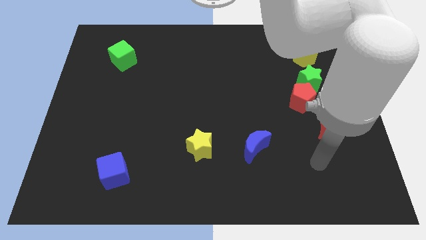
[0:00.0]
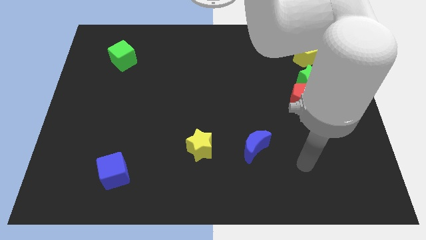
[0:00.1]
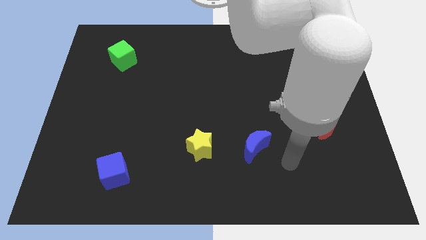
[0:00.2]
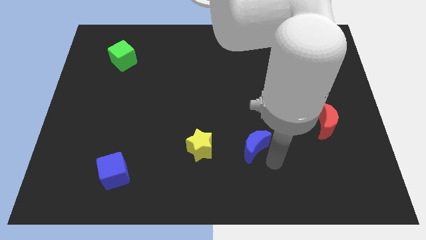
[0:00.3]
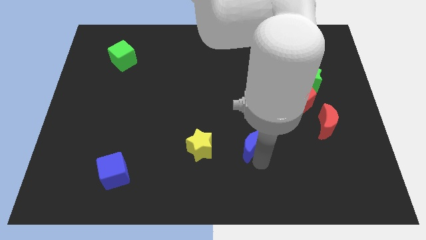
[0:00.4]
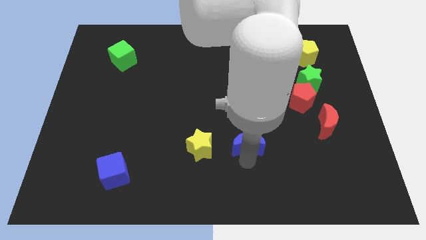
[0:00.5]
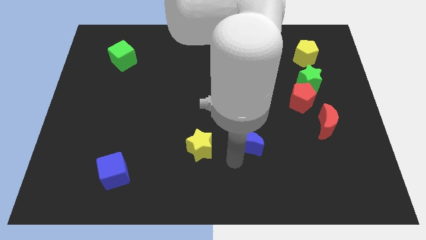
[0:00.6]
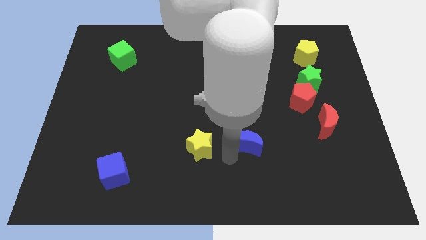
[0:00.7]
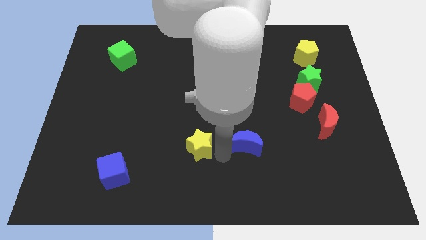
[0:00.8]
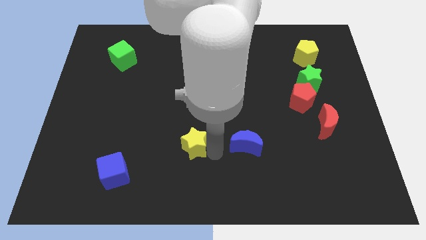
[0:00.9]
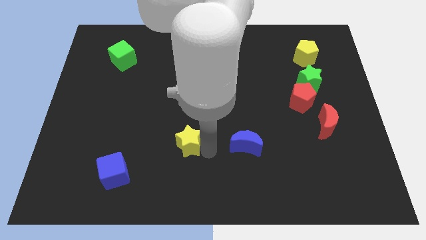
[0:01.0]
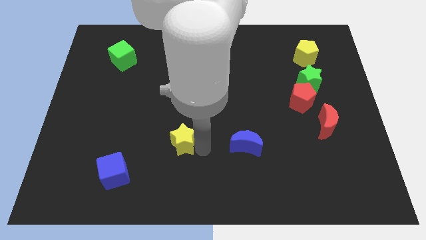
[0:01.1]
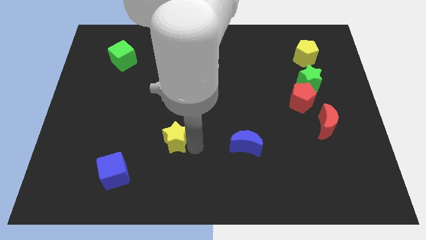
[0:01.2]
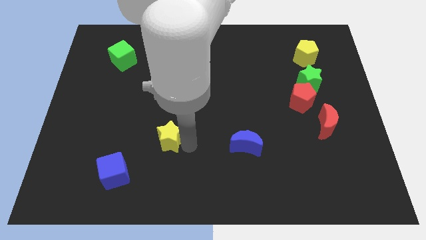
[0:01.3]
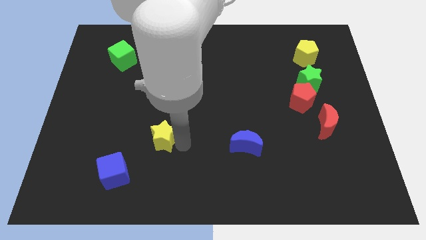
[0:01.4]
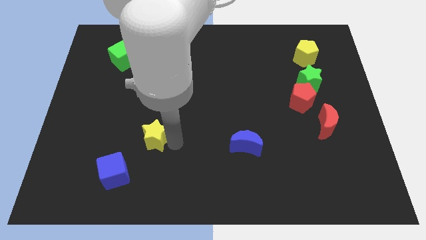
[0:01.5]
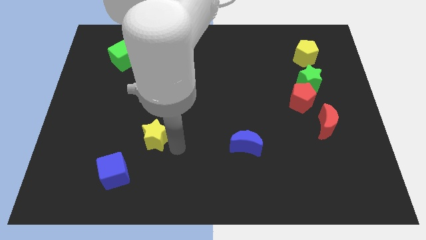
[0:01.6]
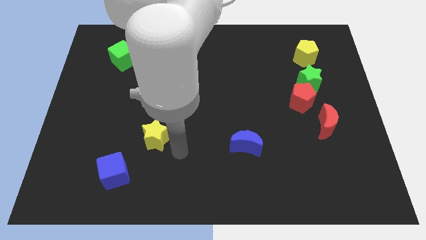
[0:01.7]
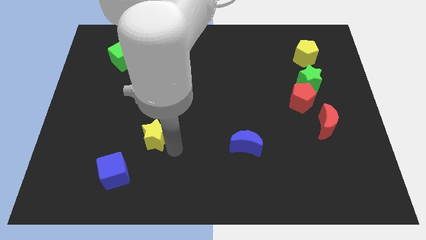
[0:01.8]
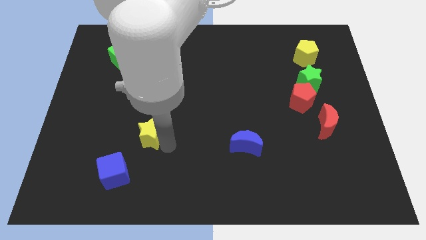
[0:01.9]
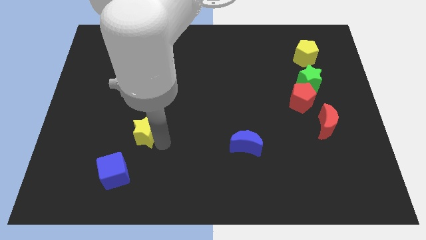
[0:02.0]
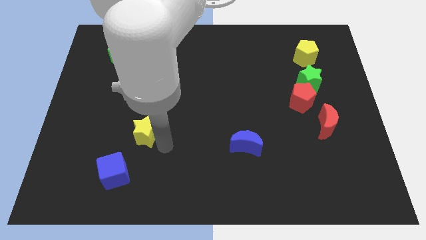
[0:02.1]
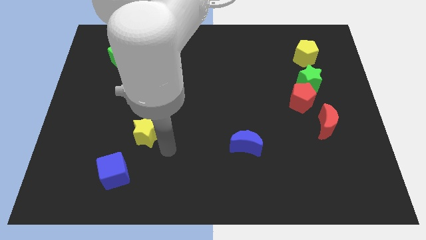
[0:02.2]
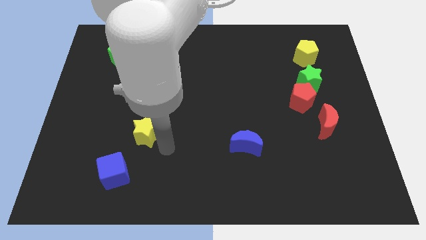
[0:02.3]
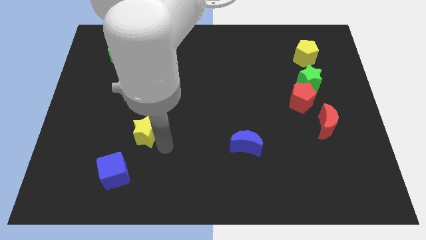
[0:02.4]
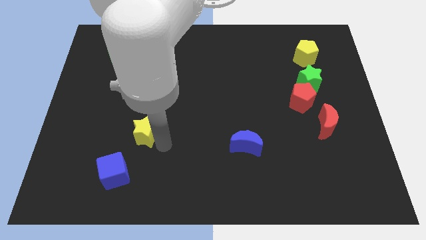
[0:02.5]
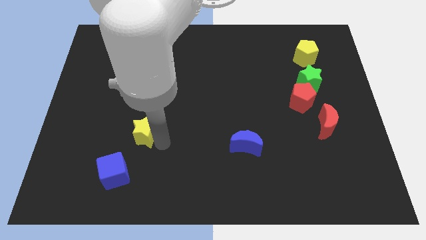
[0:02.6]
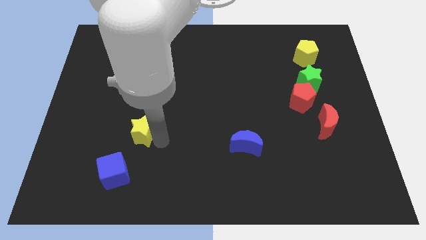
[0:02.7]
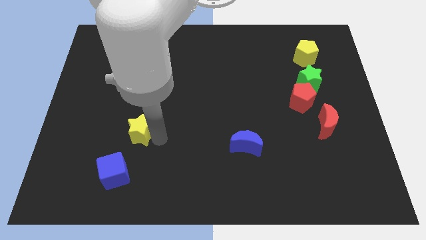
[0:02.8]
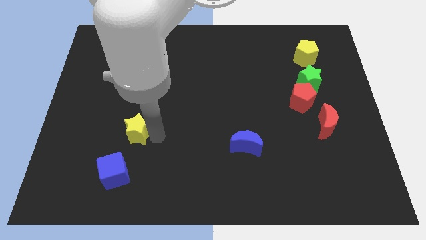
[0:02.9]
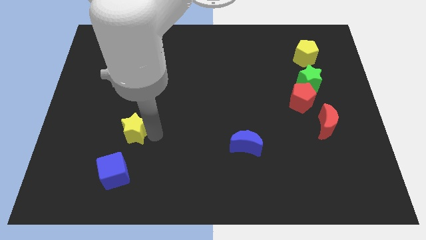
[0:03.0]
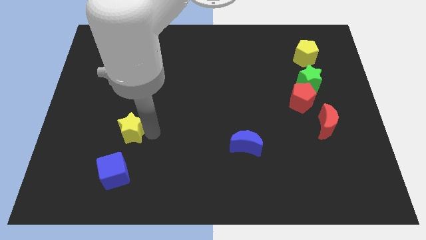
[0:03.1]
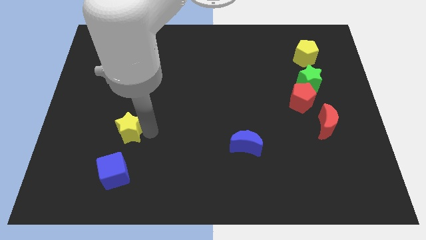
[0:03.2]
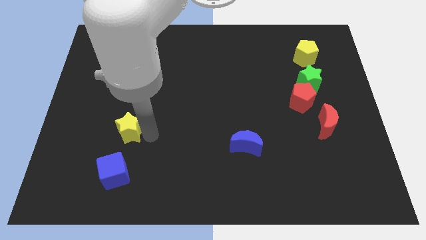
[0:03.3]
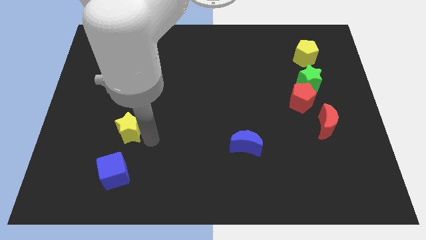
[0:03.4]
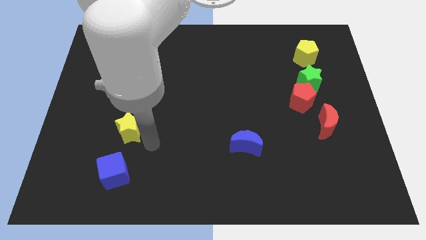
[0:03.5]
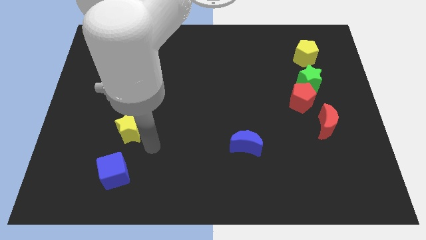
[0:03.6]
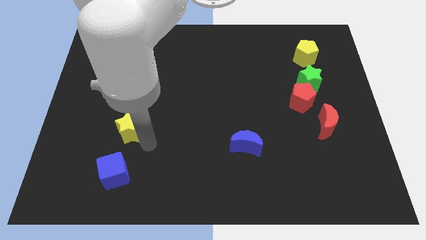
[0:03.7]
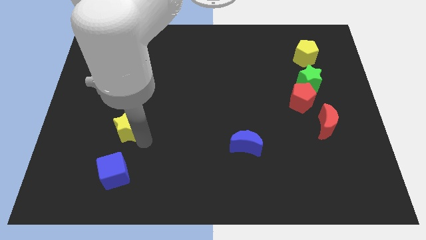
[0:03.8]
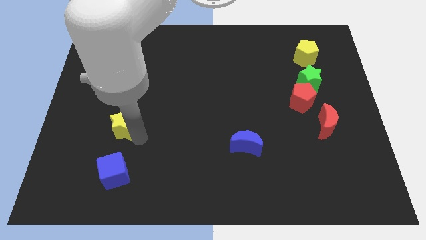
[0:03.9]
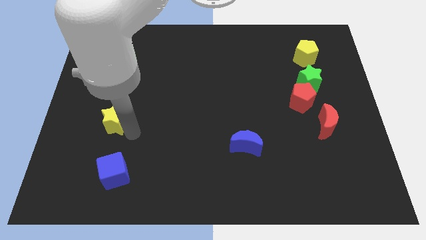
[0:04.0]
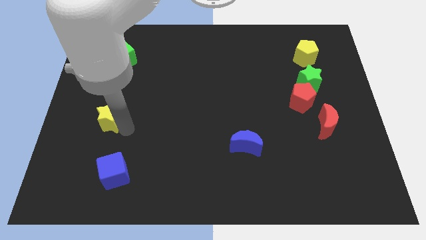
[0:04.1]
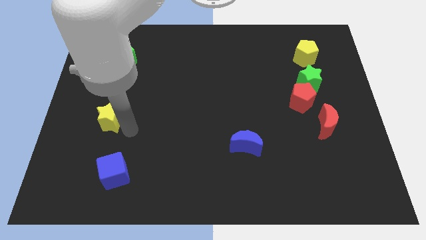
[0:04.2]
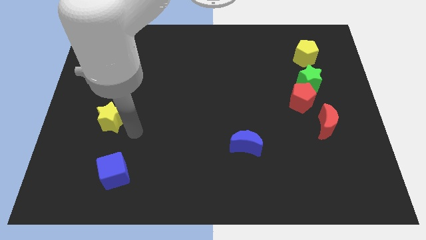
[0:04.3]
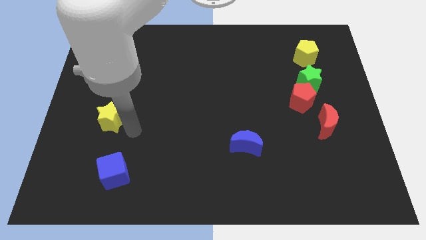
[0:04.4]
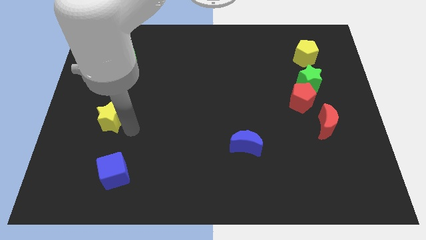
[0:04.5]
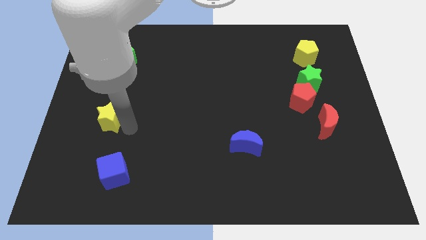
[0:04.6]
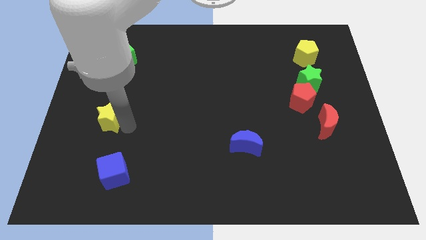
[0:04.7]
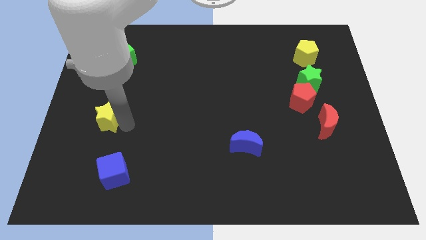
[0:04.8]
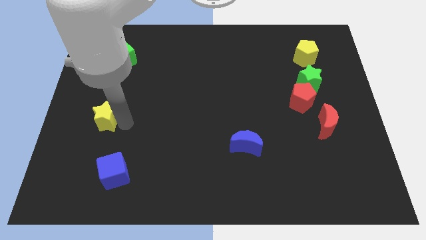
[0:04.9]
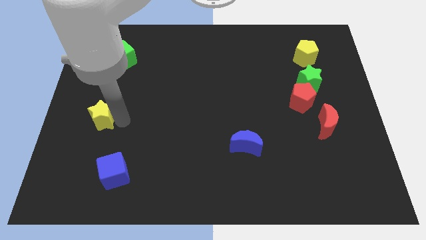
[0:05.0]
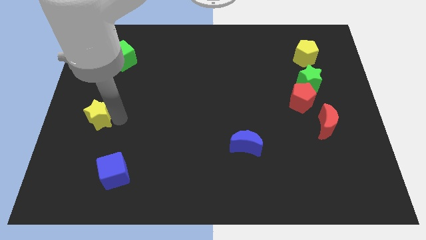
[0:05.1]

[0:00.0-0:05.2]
move the yellow star to the left side of the board

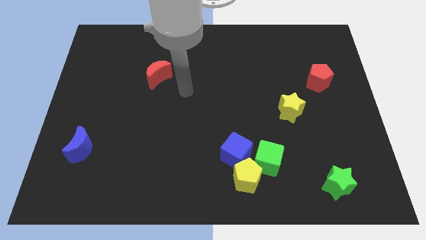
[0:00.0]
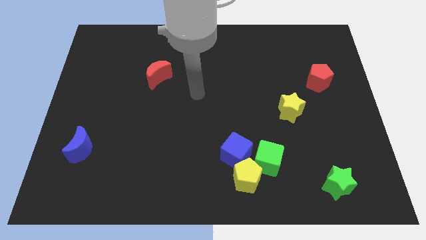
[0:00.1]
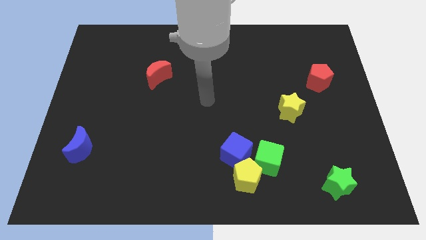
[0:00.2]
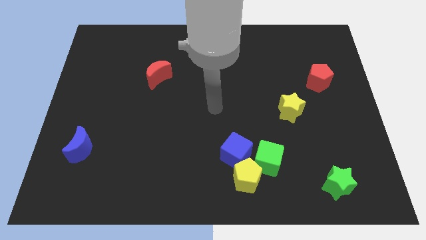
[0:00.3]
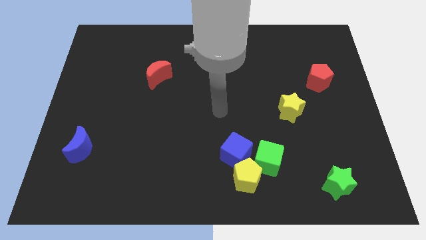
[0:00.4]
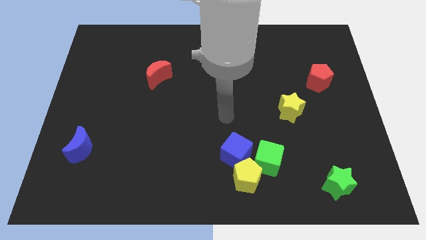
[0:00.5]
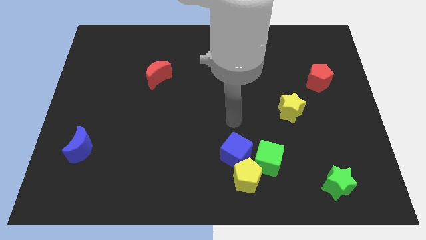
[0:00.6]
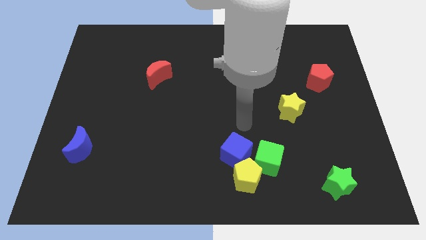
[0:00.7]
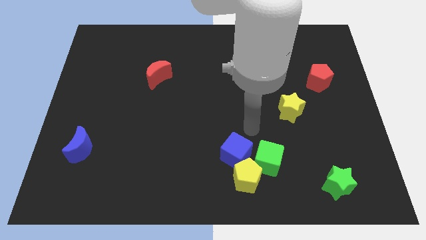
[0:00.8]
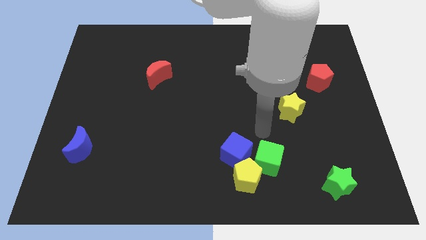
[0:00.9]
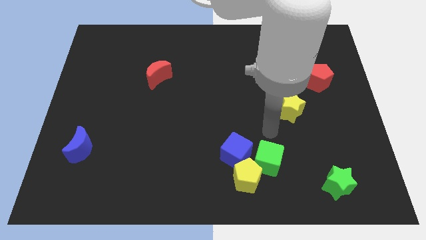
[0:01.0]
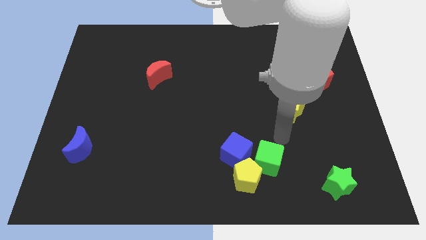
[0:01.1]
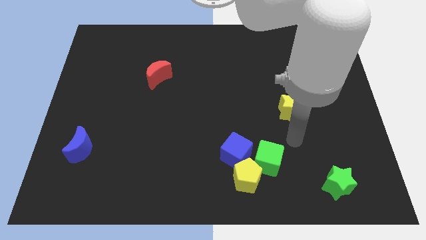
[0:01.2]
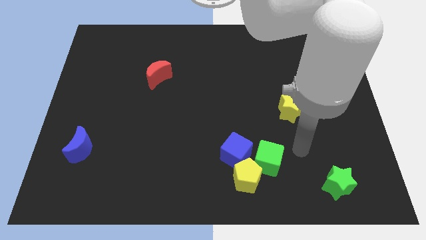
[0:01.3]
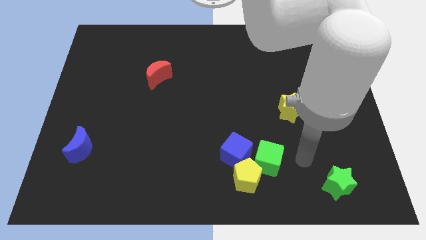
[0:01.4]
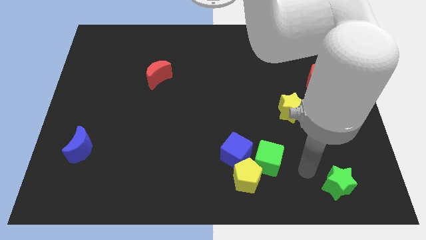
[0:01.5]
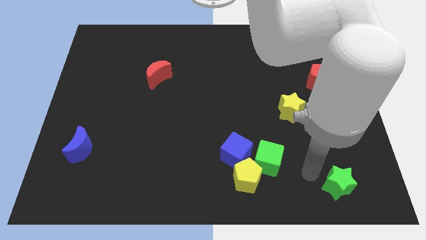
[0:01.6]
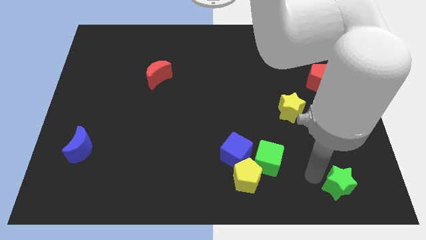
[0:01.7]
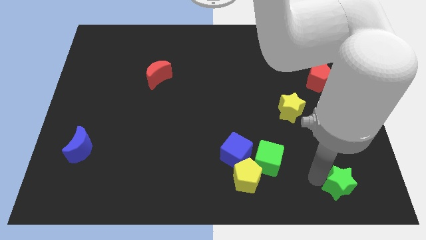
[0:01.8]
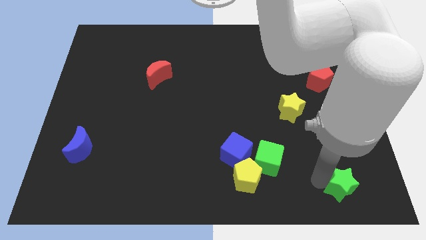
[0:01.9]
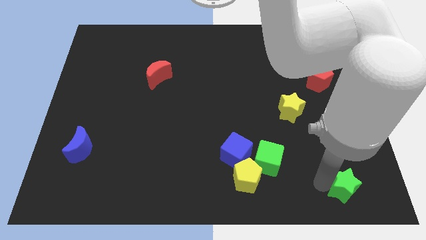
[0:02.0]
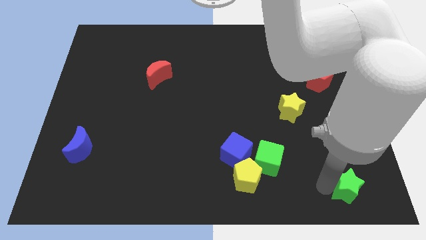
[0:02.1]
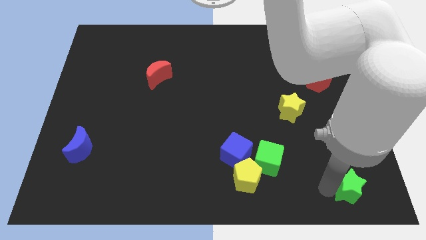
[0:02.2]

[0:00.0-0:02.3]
slide the green star to the bottom right
